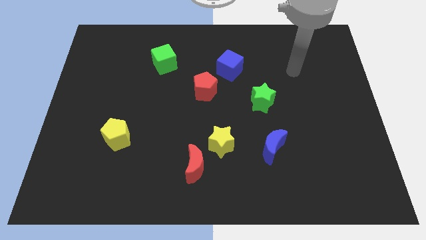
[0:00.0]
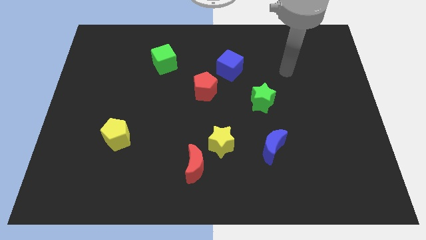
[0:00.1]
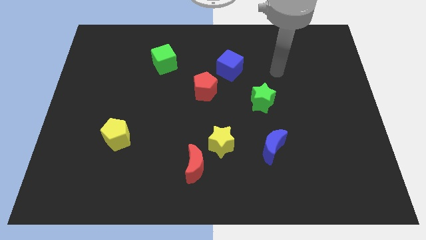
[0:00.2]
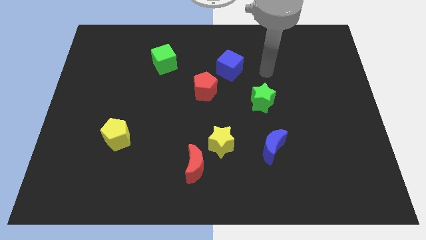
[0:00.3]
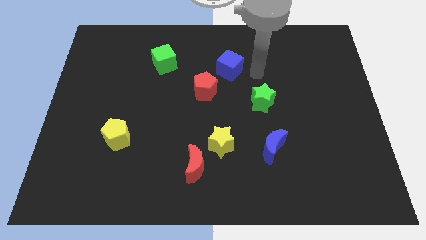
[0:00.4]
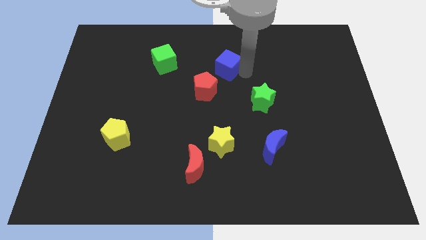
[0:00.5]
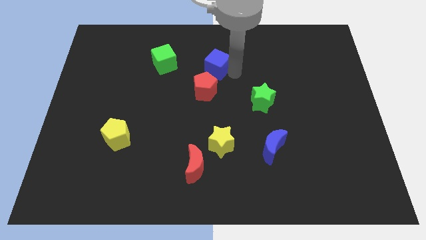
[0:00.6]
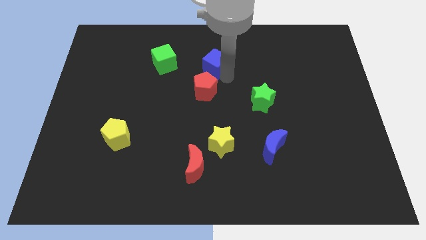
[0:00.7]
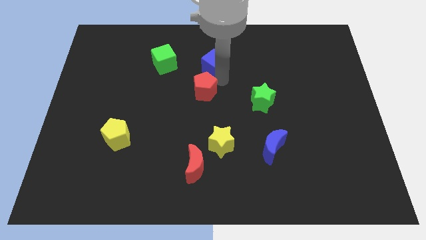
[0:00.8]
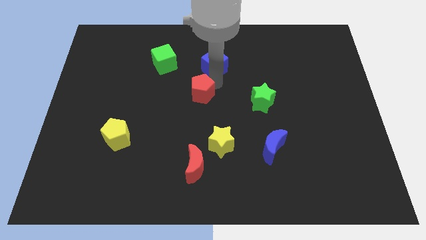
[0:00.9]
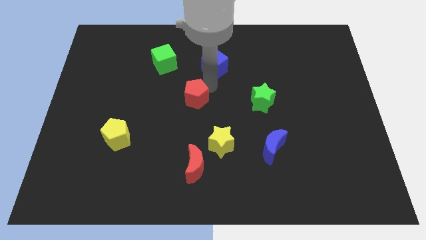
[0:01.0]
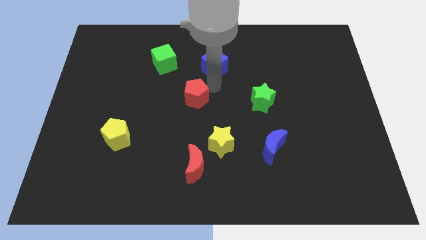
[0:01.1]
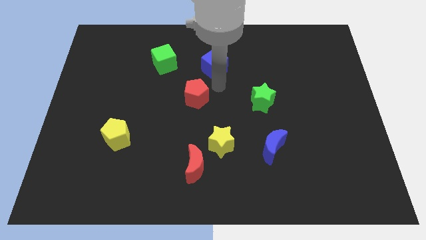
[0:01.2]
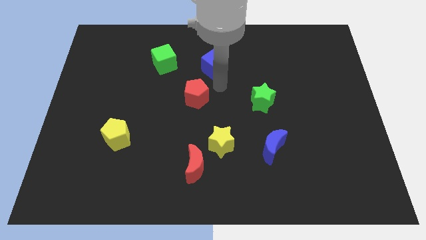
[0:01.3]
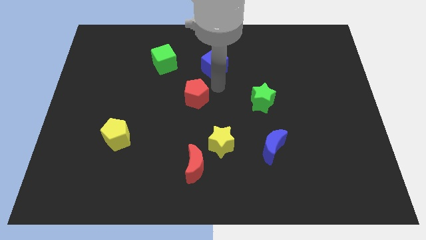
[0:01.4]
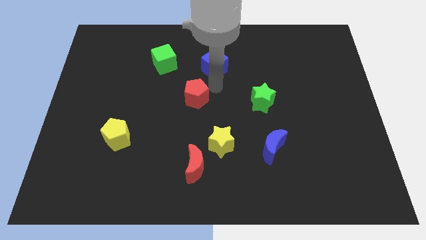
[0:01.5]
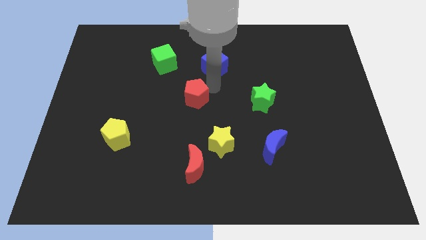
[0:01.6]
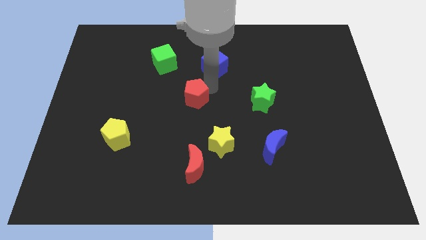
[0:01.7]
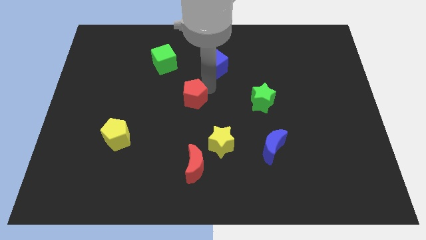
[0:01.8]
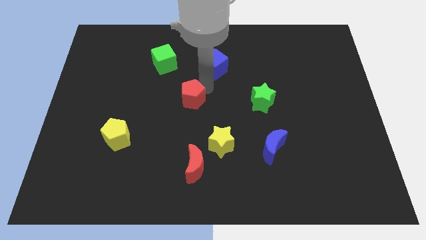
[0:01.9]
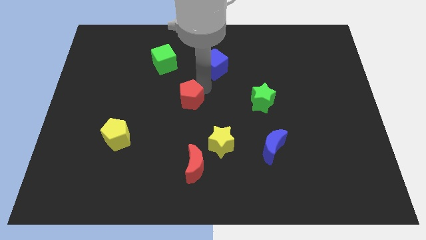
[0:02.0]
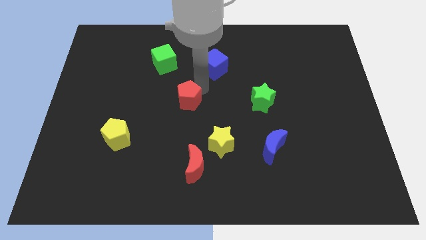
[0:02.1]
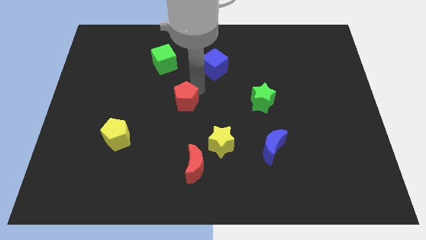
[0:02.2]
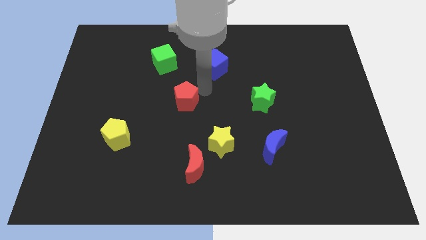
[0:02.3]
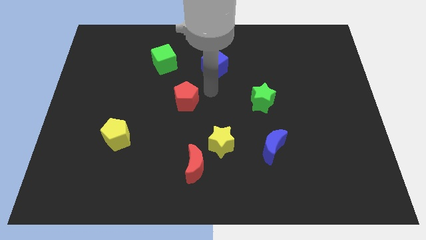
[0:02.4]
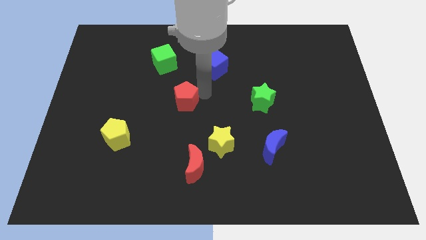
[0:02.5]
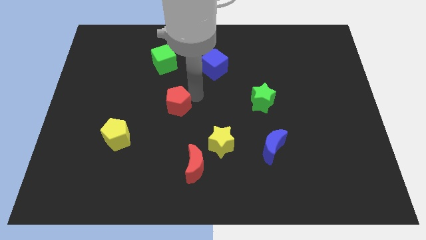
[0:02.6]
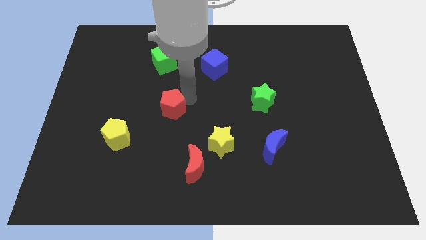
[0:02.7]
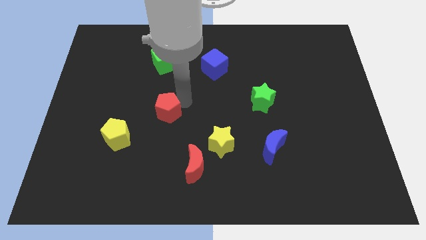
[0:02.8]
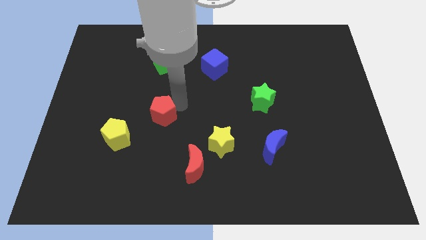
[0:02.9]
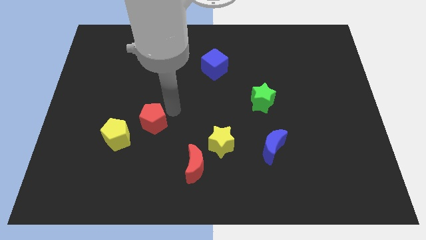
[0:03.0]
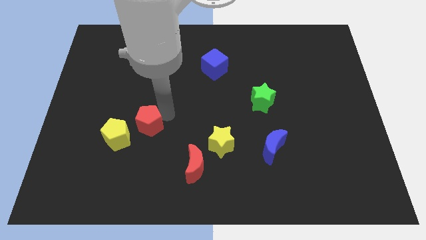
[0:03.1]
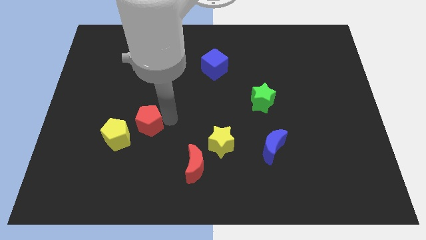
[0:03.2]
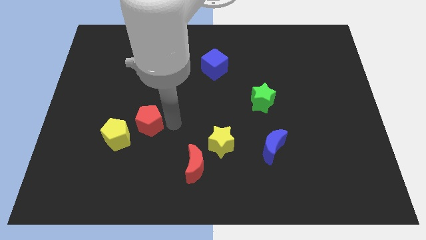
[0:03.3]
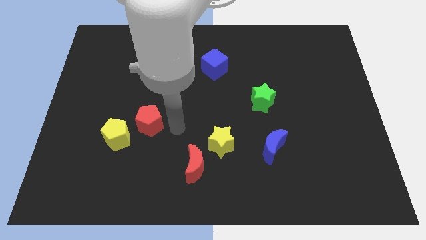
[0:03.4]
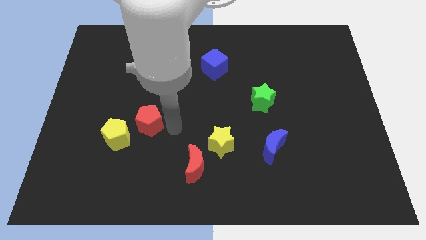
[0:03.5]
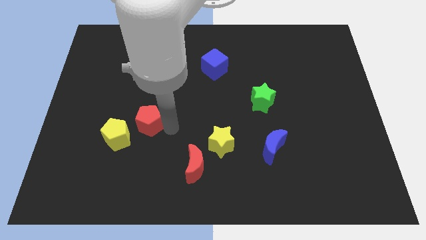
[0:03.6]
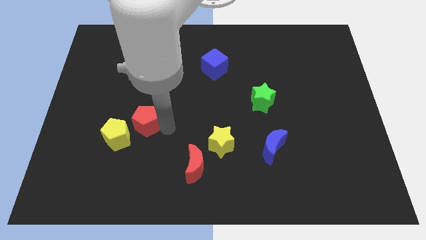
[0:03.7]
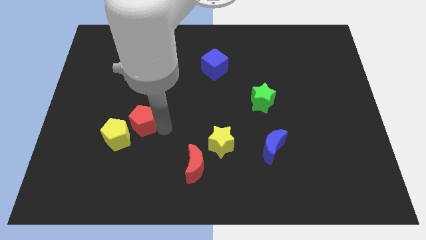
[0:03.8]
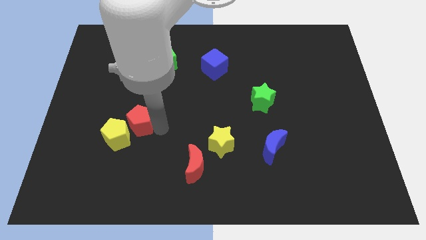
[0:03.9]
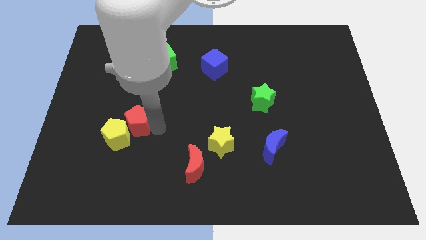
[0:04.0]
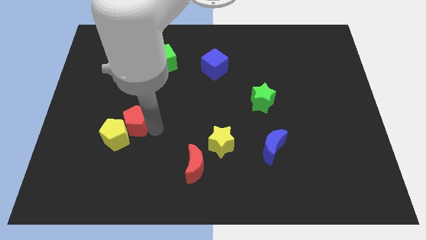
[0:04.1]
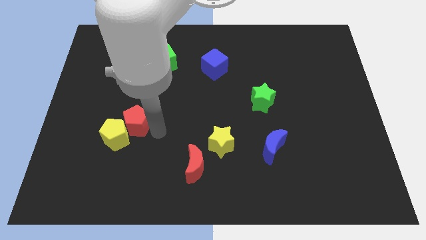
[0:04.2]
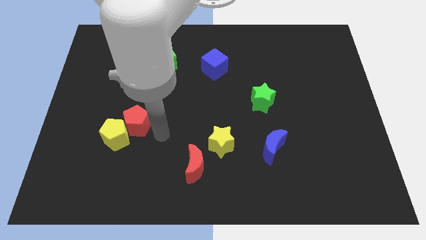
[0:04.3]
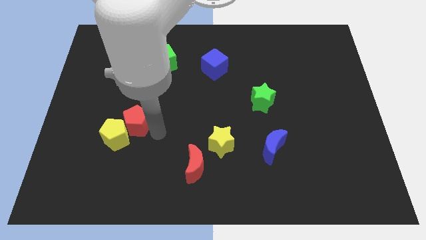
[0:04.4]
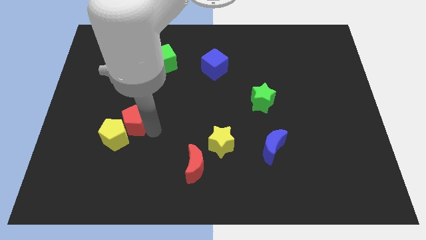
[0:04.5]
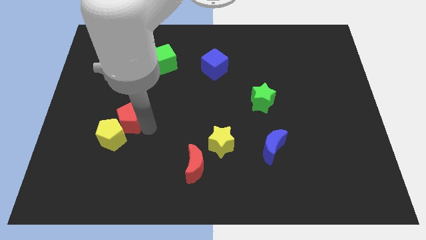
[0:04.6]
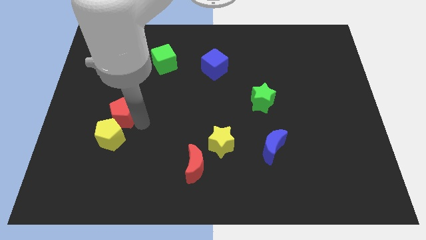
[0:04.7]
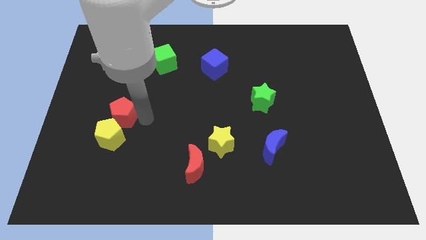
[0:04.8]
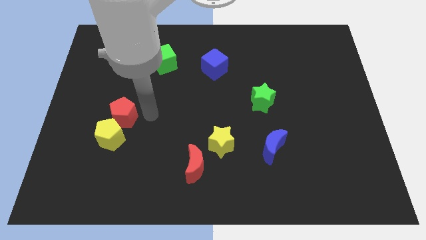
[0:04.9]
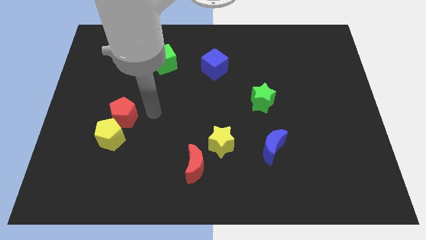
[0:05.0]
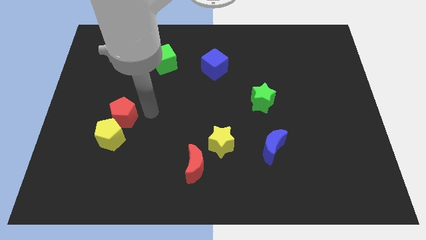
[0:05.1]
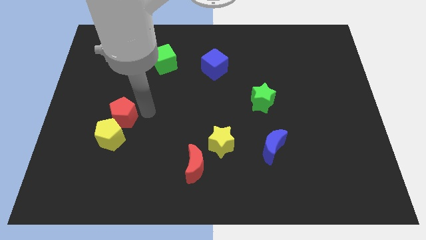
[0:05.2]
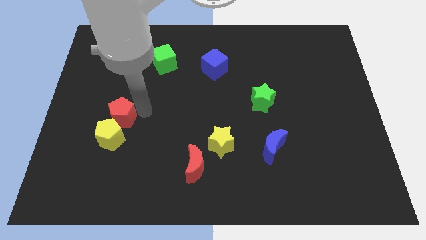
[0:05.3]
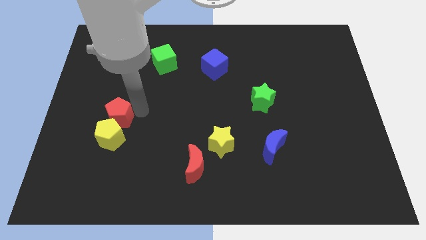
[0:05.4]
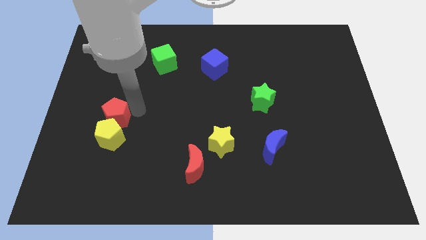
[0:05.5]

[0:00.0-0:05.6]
put the red pentagon to the top left of the yellow pentagon

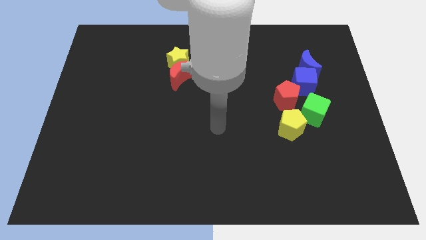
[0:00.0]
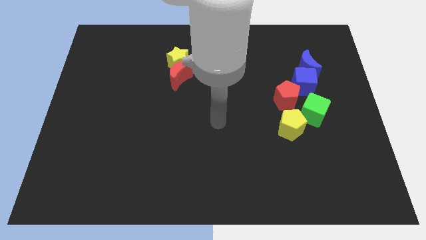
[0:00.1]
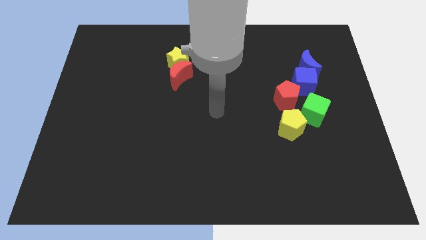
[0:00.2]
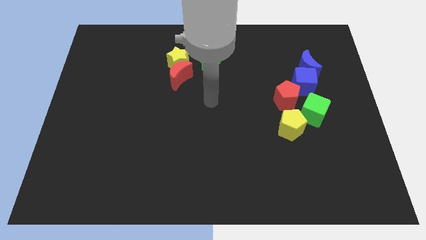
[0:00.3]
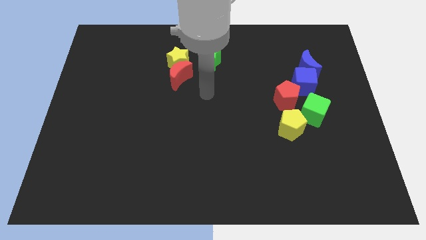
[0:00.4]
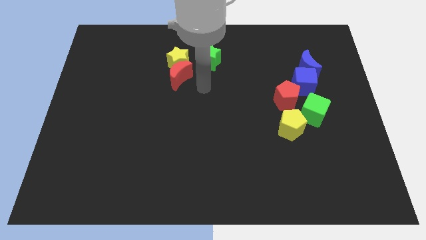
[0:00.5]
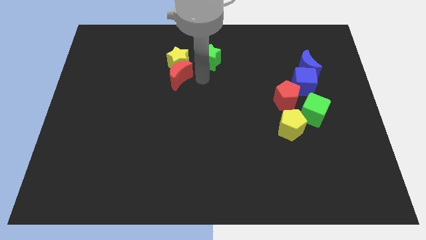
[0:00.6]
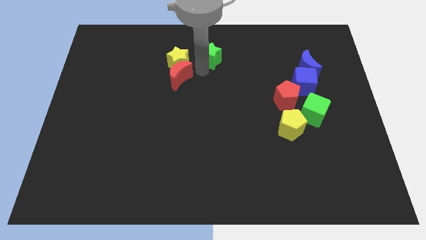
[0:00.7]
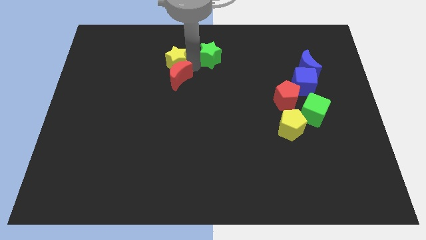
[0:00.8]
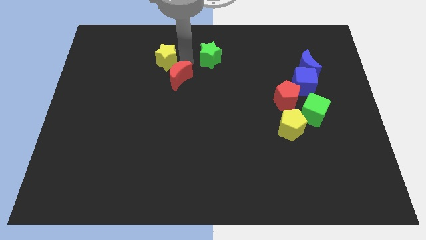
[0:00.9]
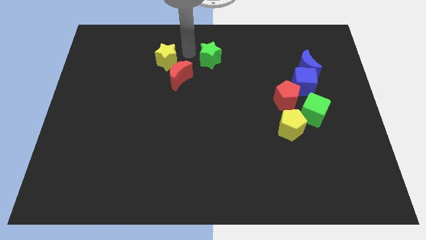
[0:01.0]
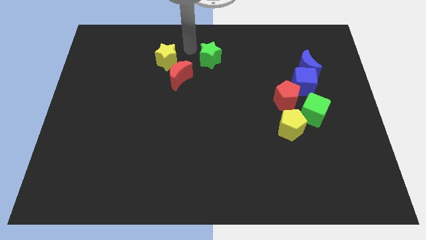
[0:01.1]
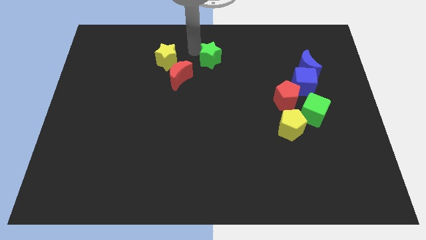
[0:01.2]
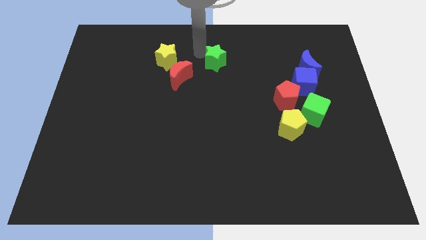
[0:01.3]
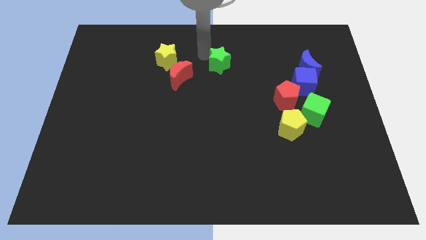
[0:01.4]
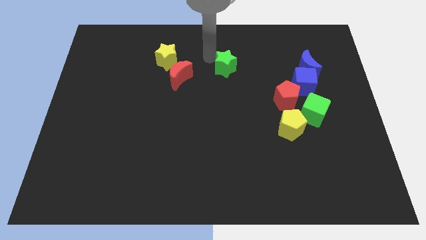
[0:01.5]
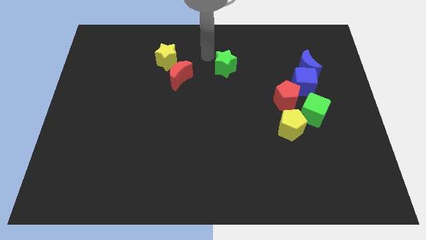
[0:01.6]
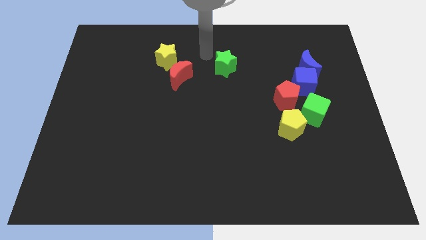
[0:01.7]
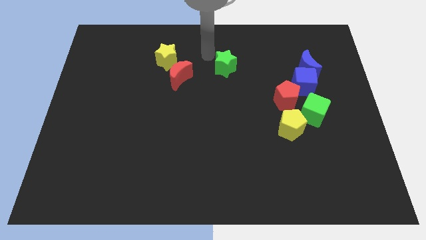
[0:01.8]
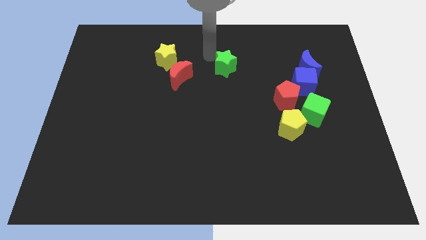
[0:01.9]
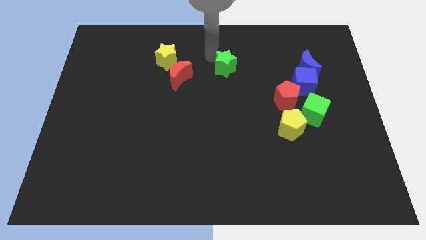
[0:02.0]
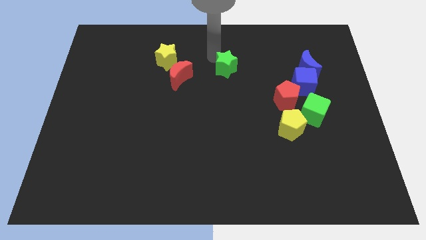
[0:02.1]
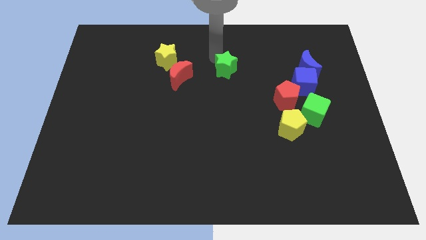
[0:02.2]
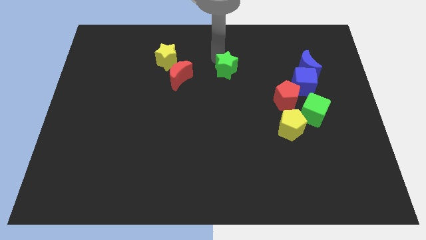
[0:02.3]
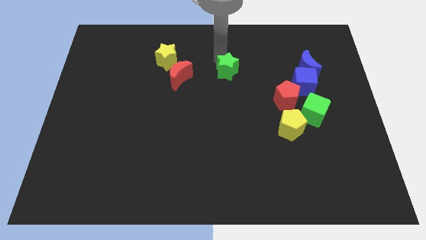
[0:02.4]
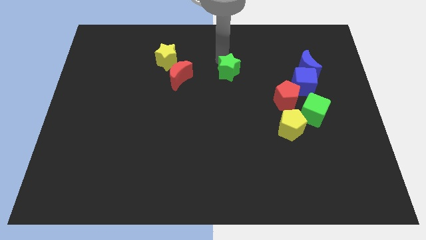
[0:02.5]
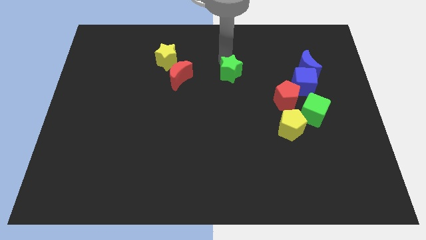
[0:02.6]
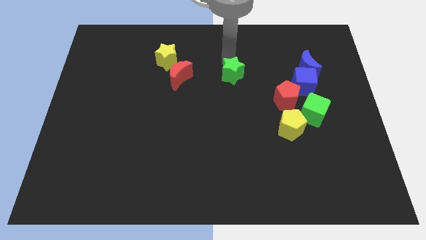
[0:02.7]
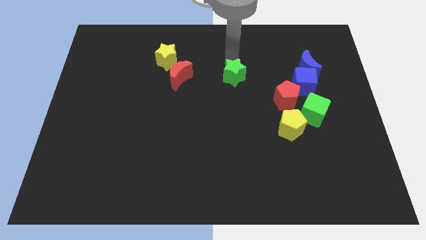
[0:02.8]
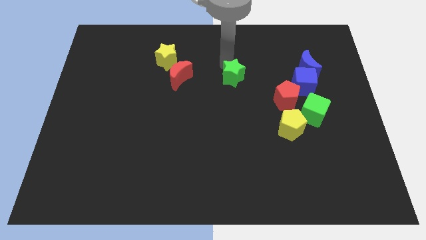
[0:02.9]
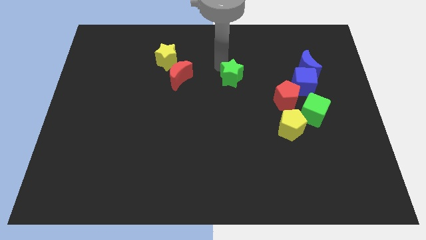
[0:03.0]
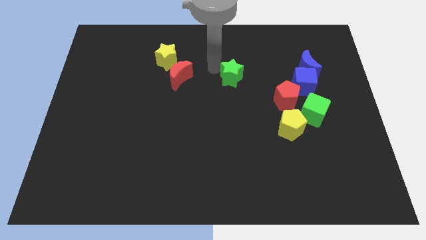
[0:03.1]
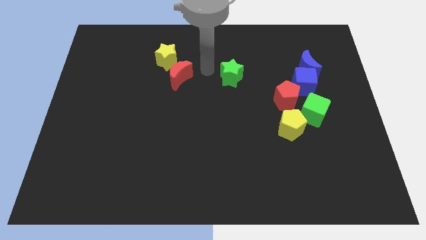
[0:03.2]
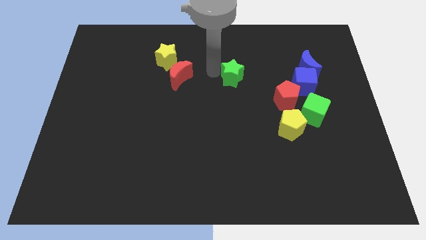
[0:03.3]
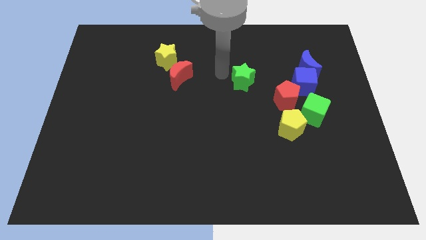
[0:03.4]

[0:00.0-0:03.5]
push the green star to the top left side of the red pentagon
